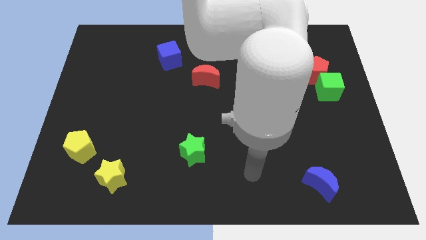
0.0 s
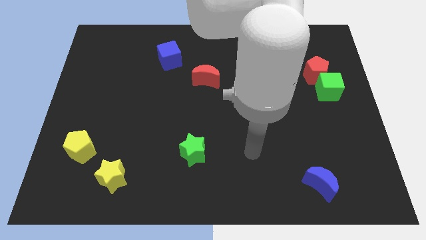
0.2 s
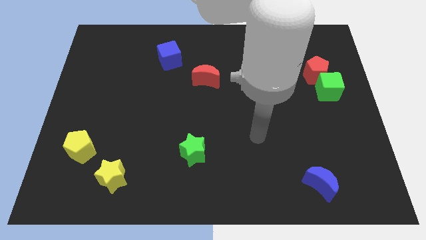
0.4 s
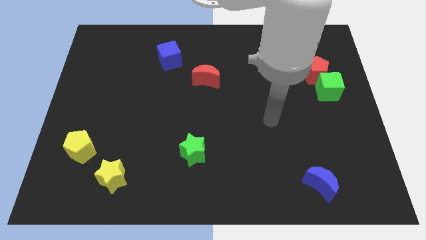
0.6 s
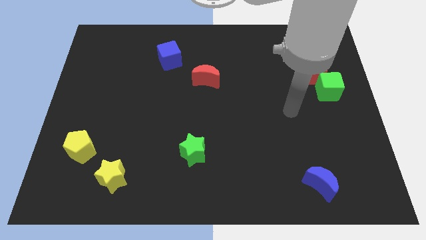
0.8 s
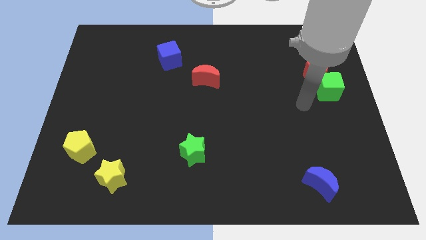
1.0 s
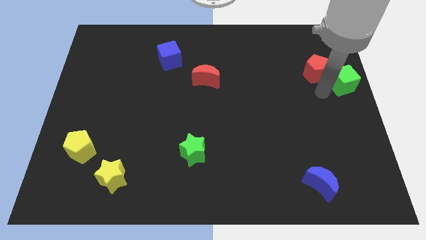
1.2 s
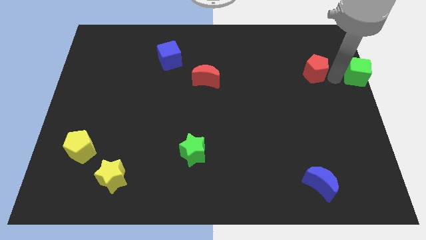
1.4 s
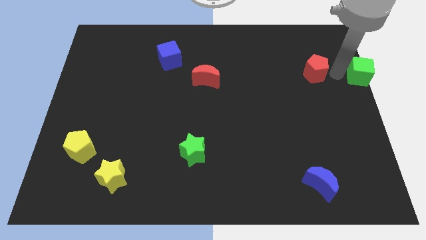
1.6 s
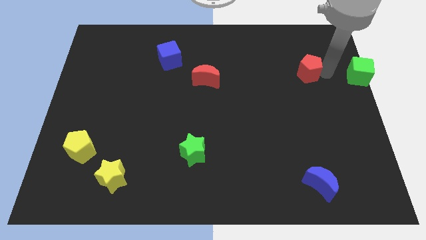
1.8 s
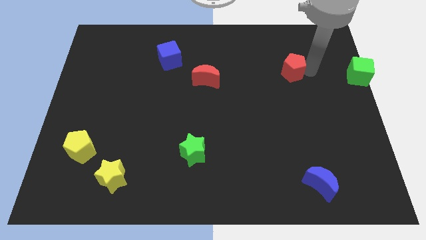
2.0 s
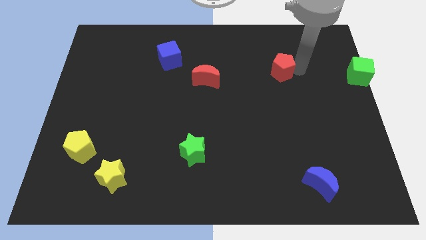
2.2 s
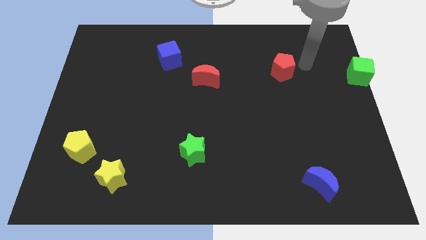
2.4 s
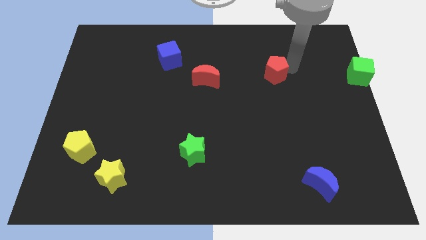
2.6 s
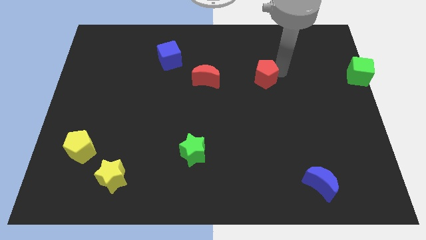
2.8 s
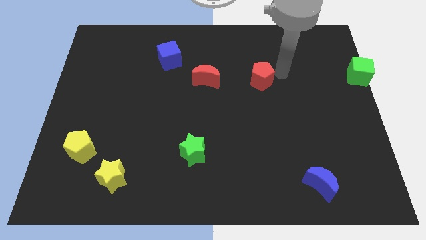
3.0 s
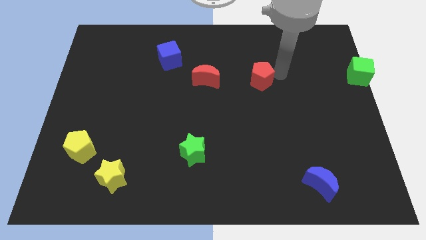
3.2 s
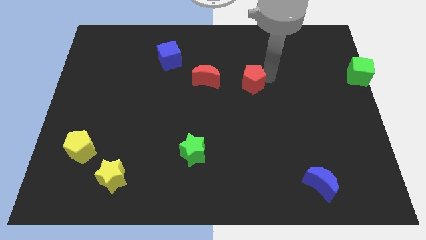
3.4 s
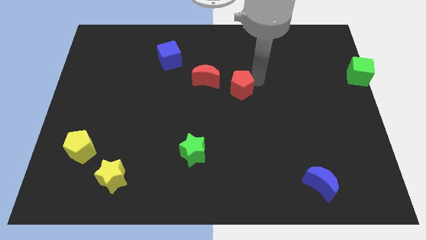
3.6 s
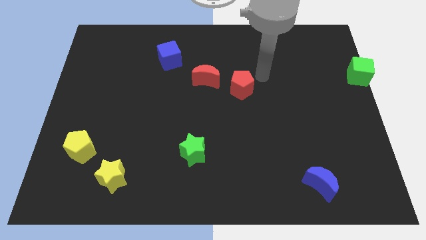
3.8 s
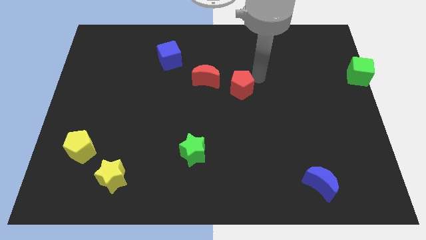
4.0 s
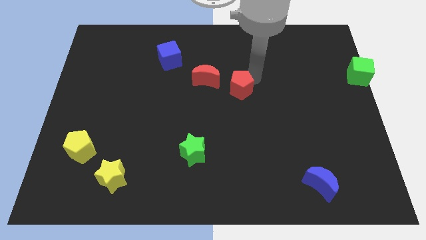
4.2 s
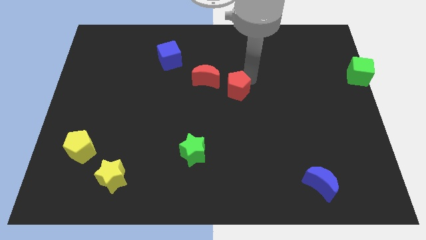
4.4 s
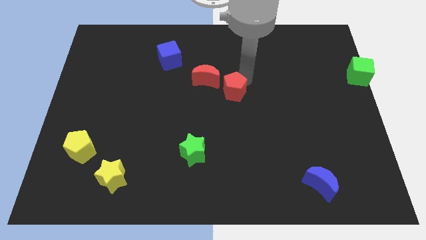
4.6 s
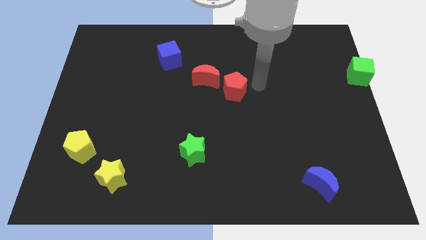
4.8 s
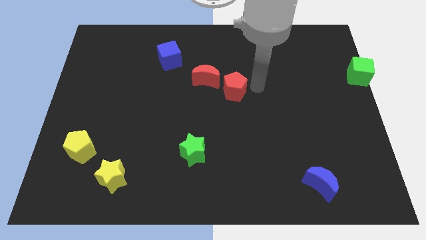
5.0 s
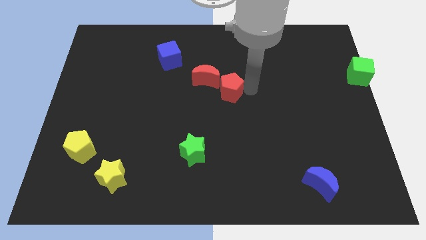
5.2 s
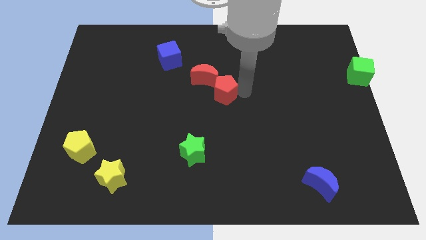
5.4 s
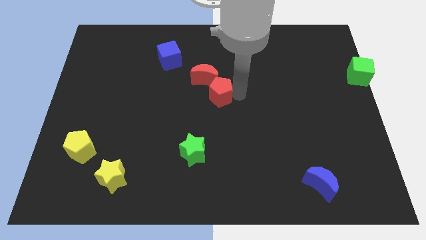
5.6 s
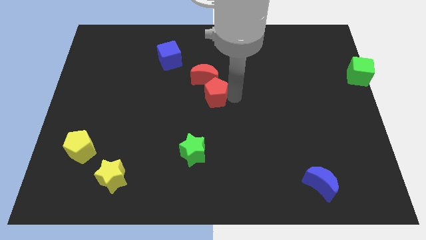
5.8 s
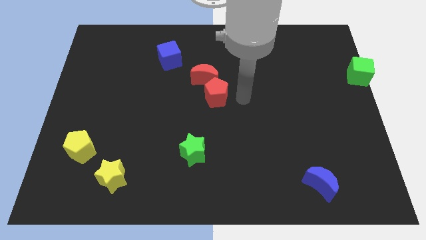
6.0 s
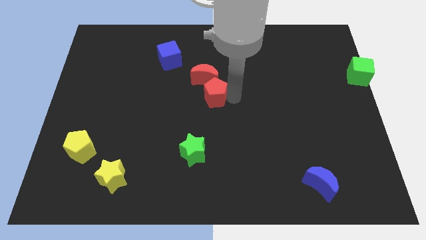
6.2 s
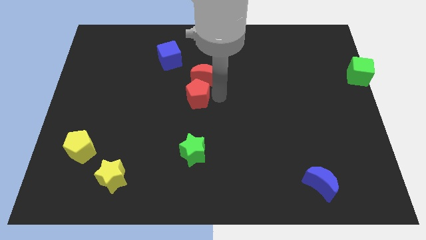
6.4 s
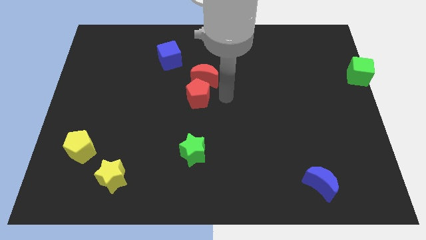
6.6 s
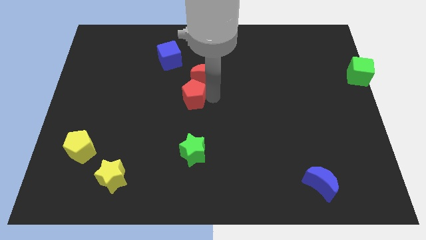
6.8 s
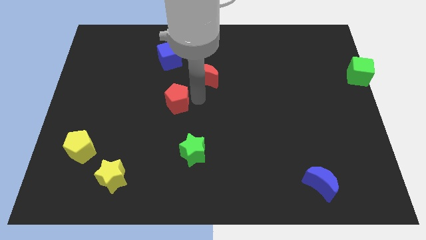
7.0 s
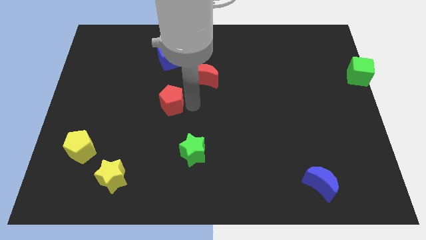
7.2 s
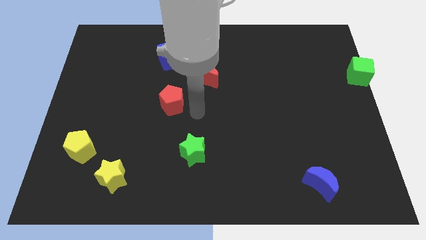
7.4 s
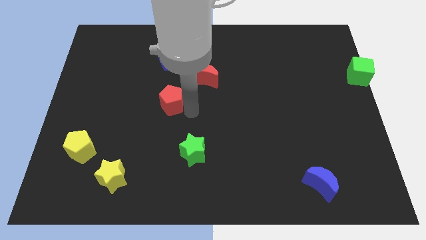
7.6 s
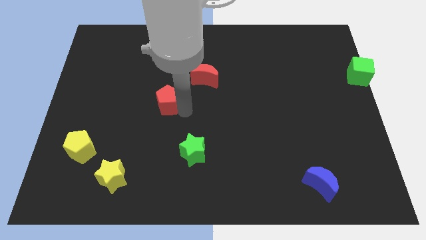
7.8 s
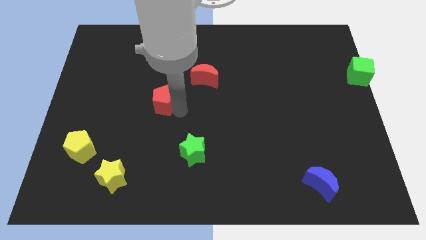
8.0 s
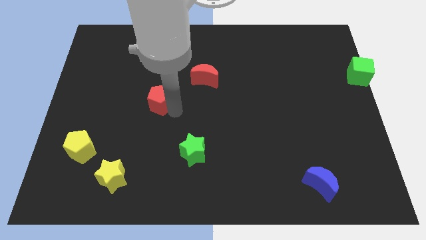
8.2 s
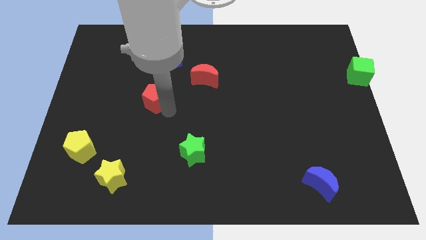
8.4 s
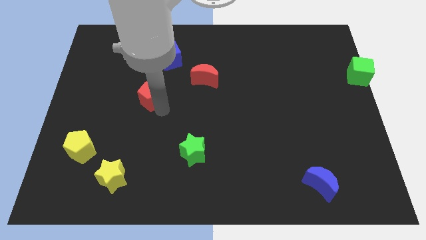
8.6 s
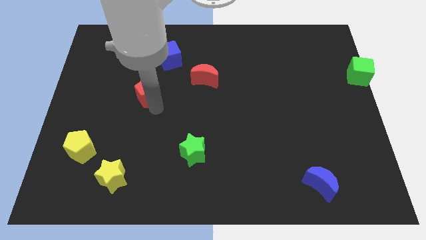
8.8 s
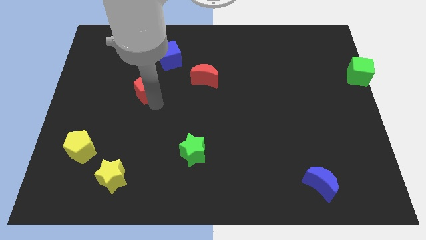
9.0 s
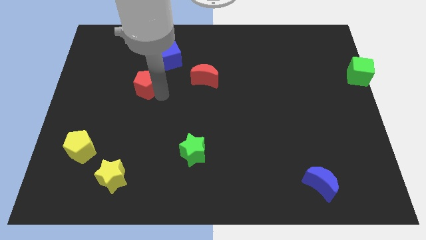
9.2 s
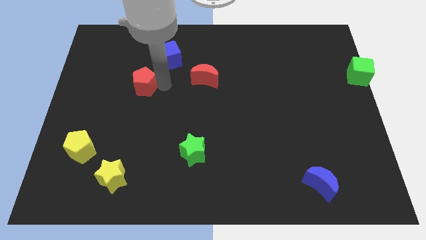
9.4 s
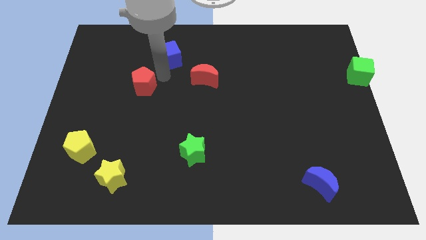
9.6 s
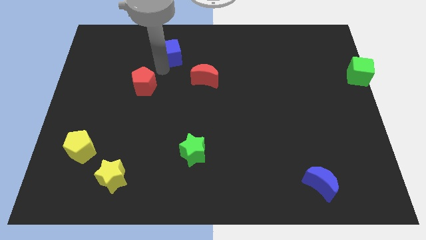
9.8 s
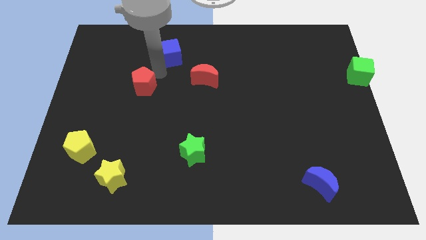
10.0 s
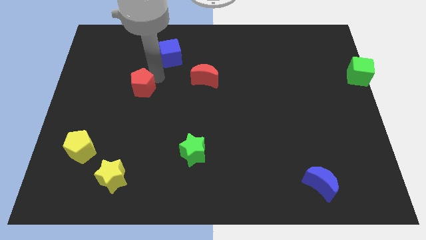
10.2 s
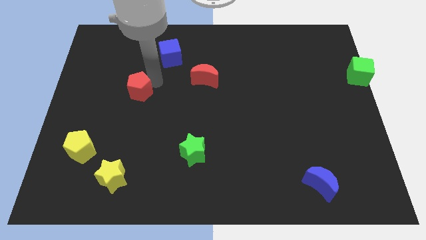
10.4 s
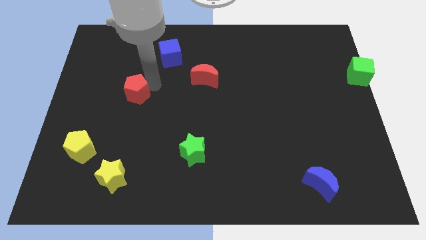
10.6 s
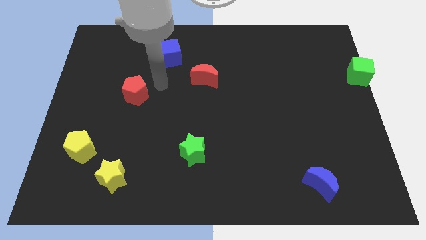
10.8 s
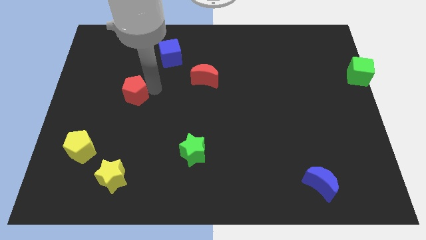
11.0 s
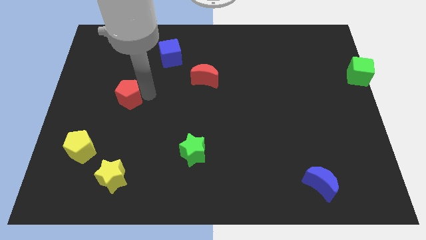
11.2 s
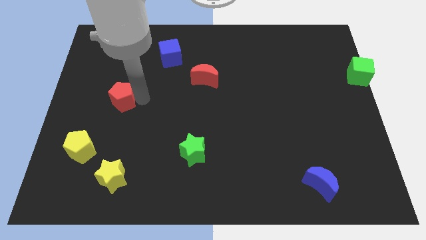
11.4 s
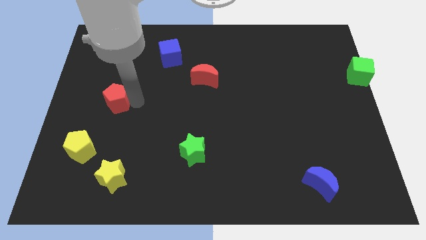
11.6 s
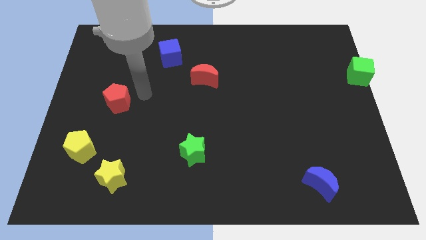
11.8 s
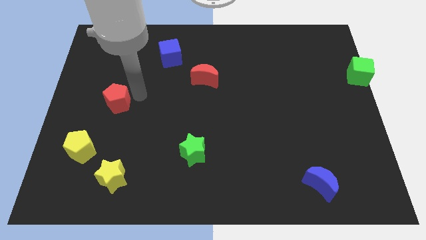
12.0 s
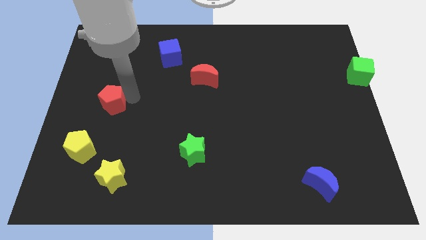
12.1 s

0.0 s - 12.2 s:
push the red pentagon above the yellow pentagon
